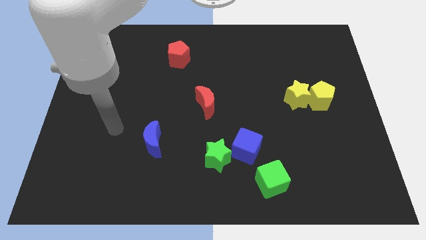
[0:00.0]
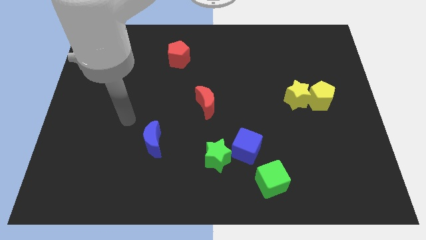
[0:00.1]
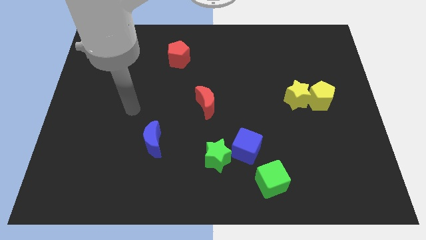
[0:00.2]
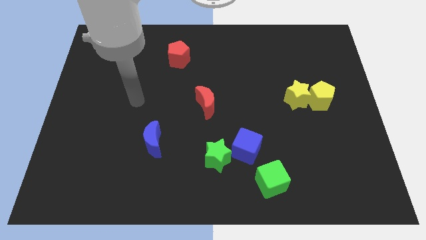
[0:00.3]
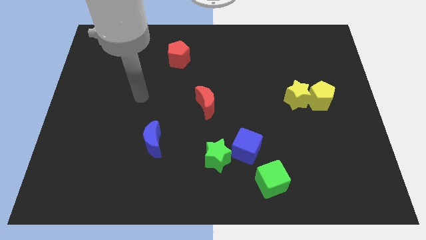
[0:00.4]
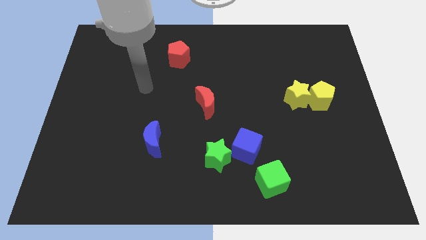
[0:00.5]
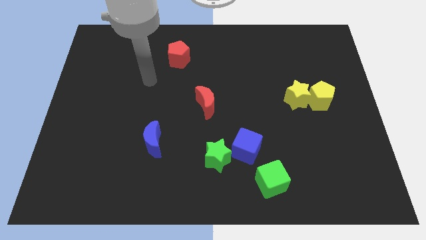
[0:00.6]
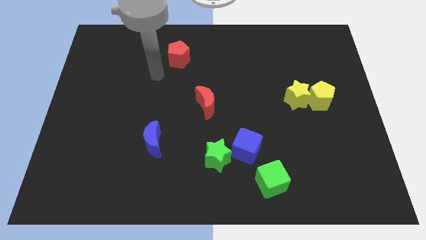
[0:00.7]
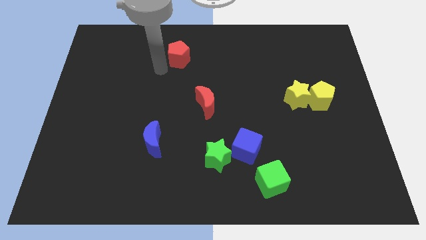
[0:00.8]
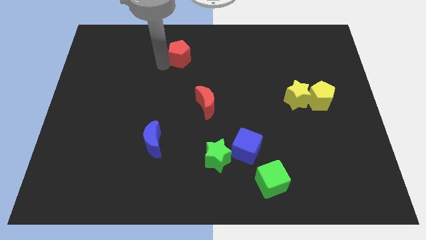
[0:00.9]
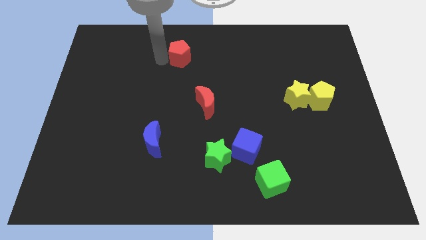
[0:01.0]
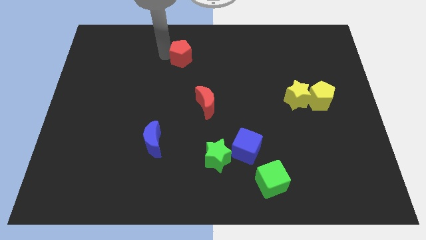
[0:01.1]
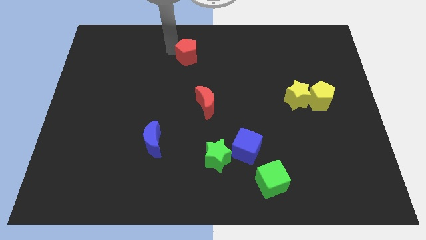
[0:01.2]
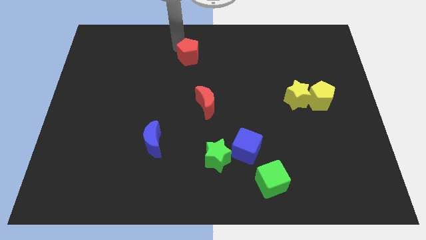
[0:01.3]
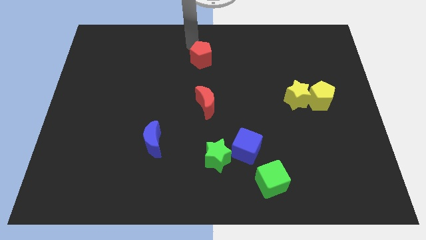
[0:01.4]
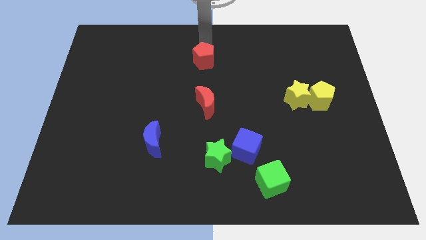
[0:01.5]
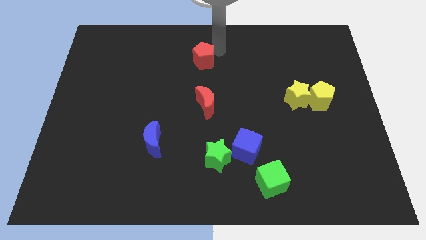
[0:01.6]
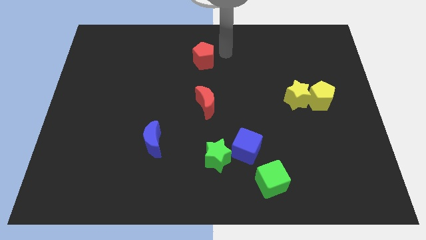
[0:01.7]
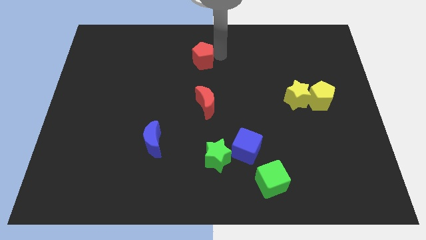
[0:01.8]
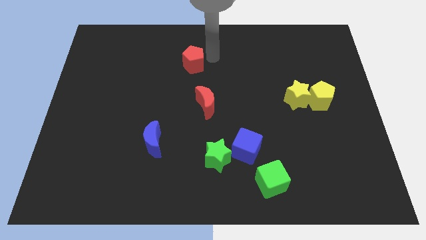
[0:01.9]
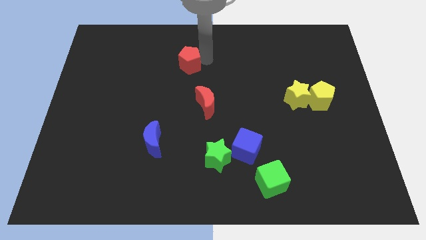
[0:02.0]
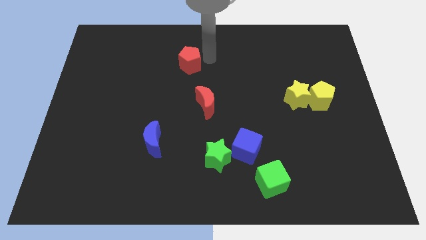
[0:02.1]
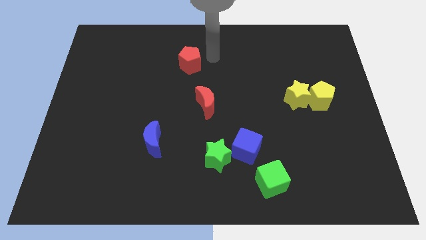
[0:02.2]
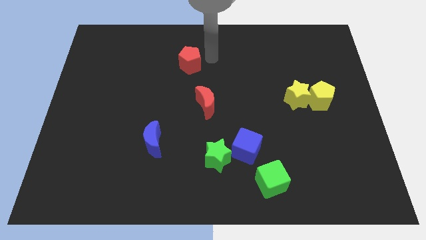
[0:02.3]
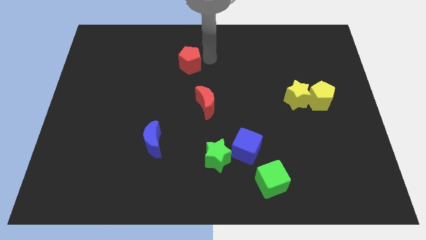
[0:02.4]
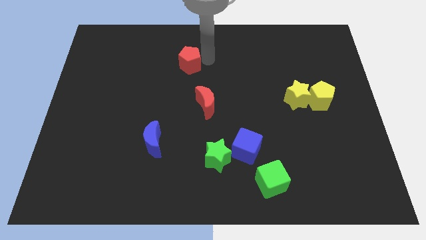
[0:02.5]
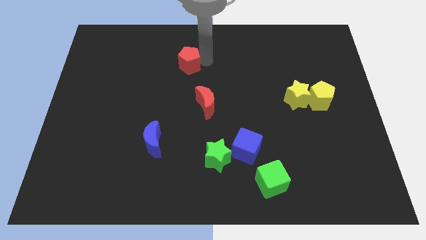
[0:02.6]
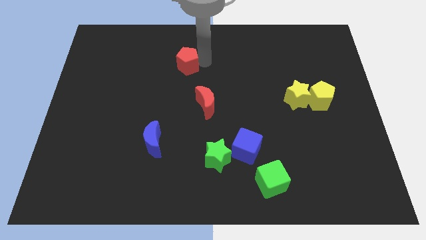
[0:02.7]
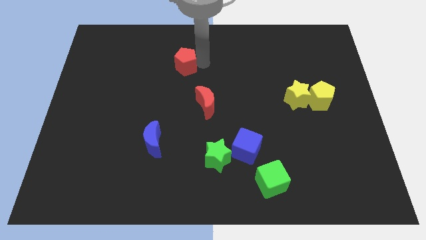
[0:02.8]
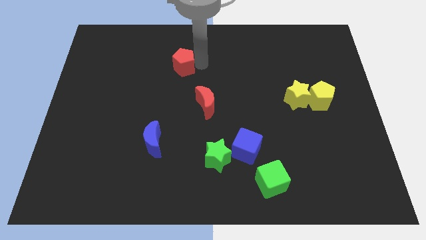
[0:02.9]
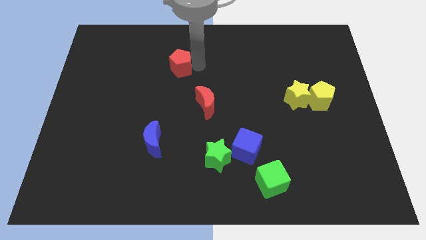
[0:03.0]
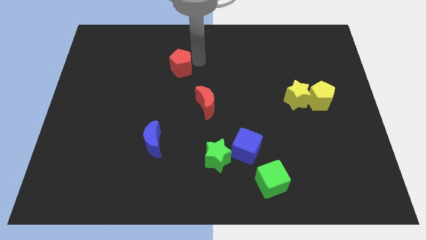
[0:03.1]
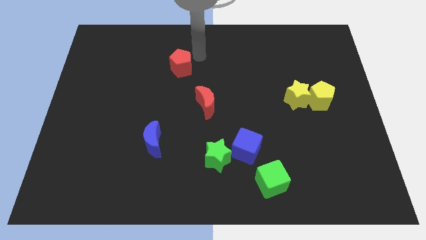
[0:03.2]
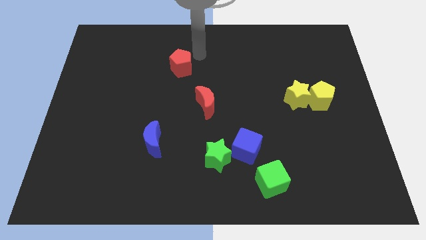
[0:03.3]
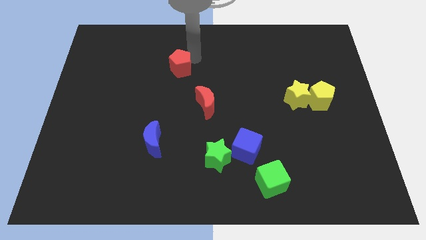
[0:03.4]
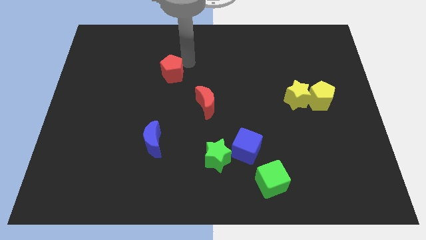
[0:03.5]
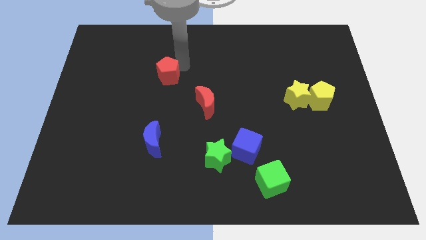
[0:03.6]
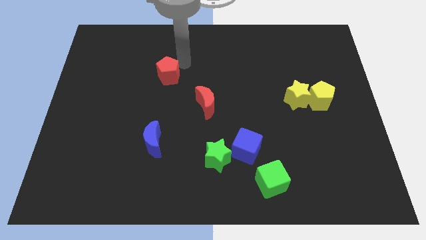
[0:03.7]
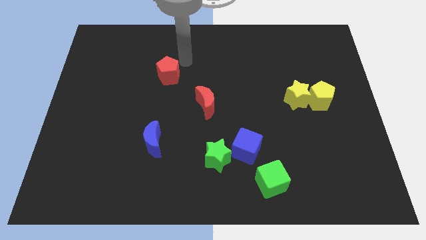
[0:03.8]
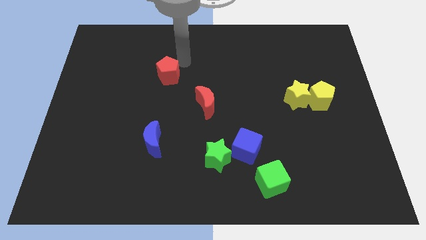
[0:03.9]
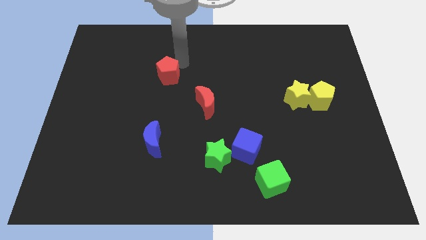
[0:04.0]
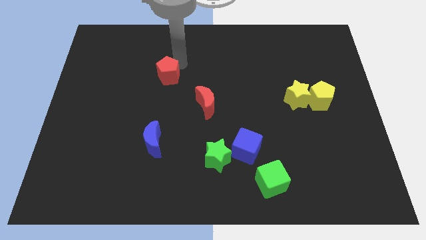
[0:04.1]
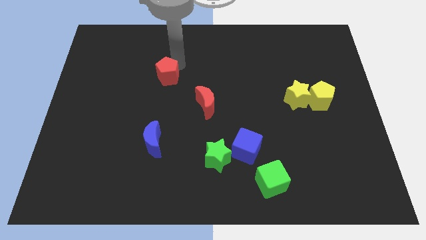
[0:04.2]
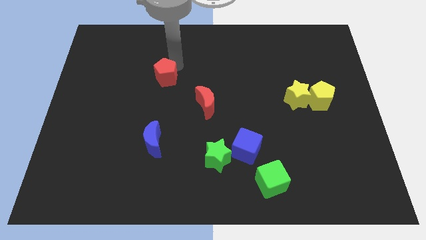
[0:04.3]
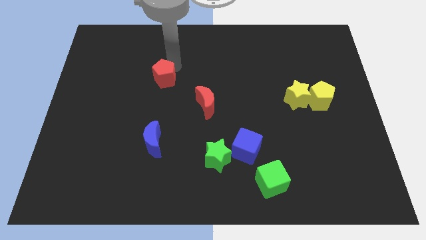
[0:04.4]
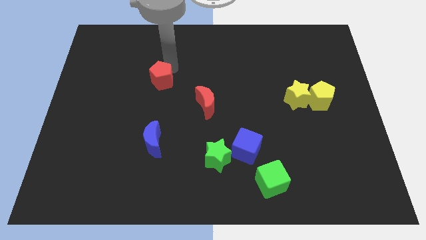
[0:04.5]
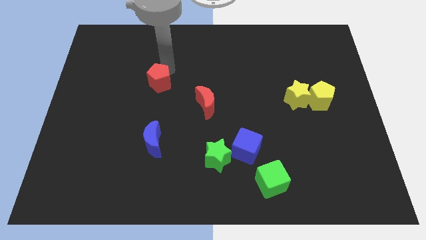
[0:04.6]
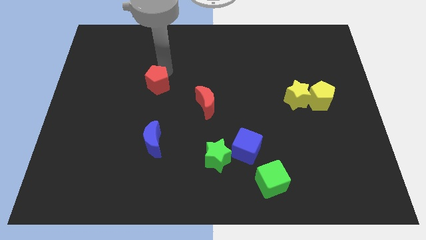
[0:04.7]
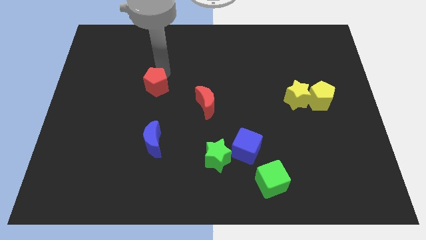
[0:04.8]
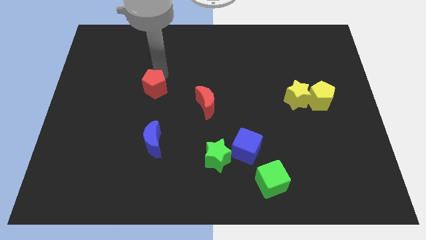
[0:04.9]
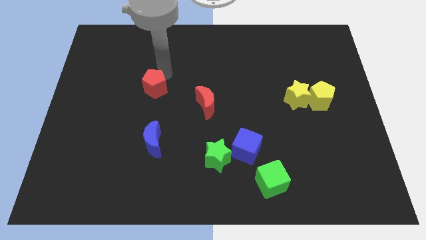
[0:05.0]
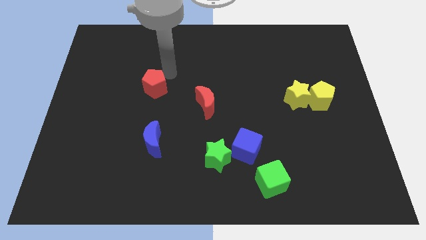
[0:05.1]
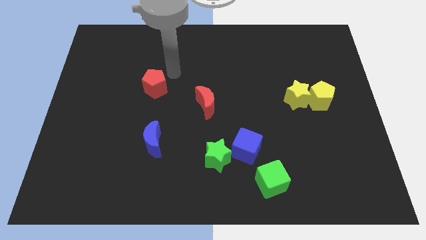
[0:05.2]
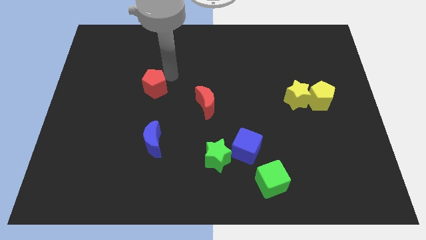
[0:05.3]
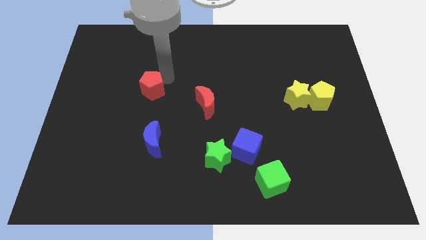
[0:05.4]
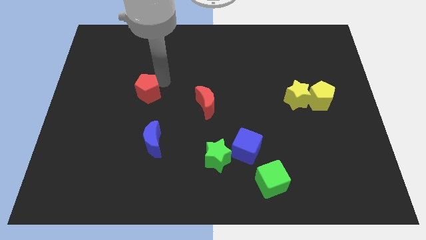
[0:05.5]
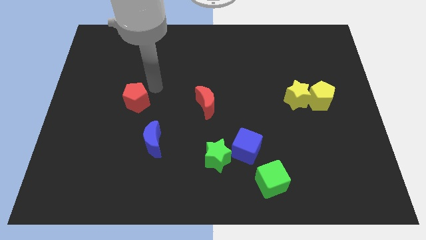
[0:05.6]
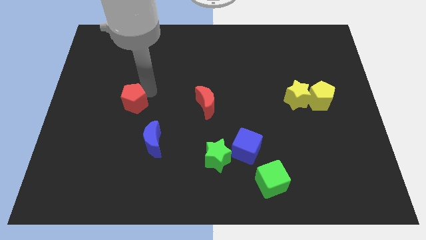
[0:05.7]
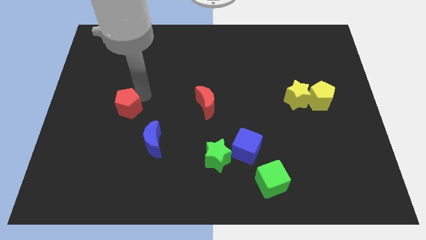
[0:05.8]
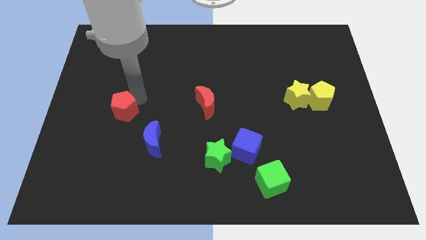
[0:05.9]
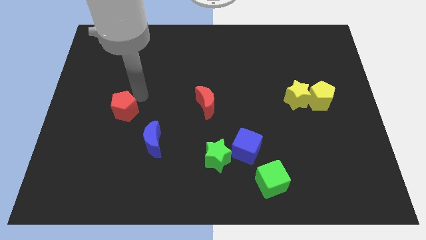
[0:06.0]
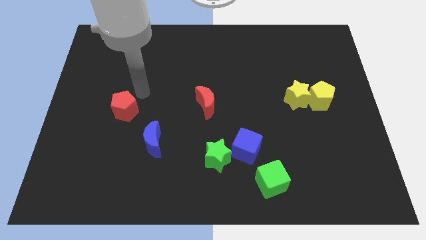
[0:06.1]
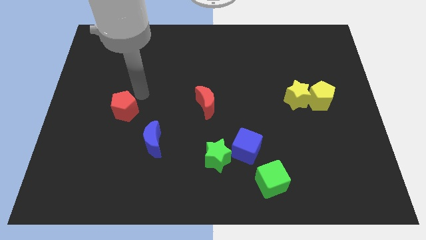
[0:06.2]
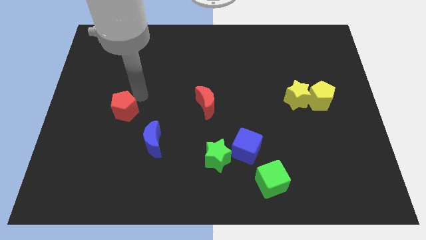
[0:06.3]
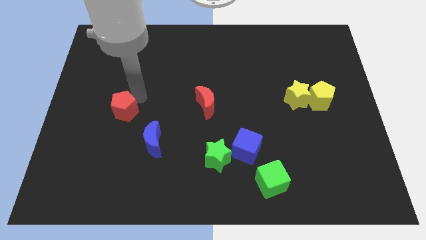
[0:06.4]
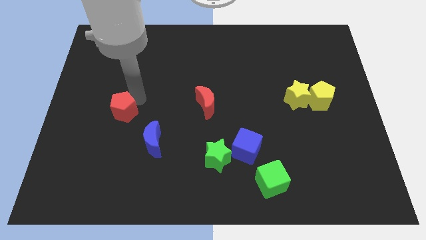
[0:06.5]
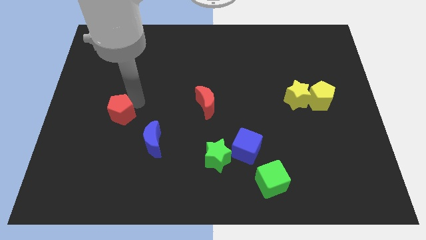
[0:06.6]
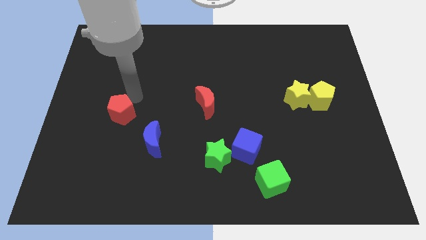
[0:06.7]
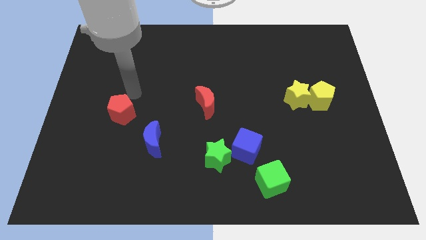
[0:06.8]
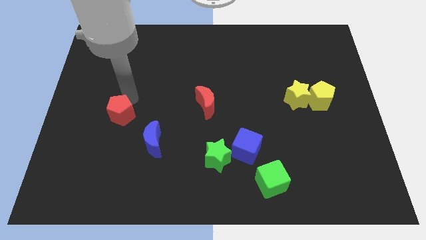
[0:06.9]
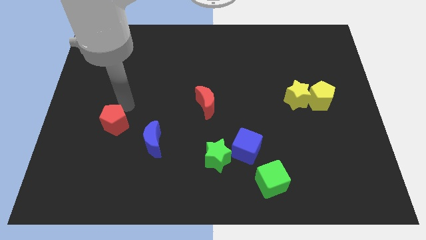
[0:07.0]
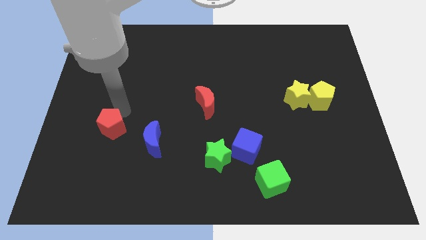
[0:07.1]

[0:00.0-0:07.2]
put the red pentagon left of the blue moon
